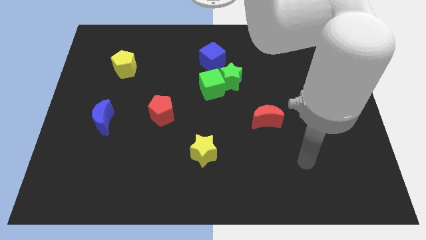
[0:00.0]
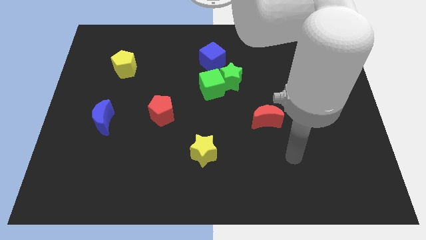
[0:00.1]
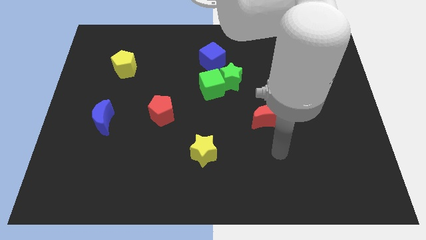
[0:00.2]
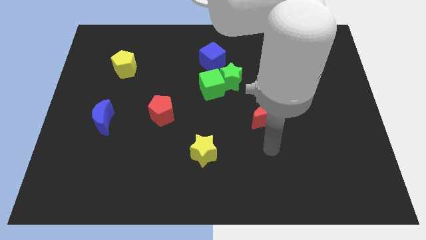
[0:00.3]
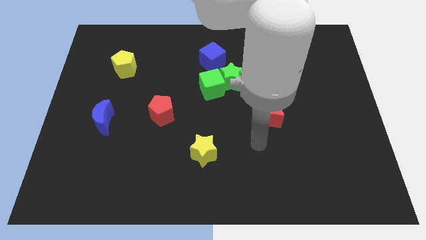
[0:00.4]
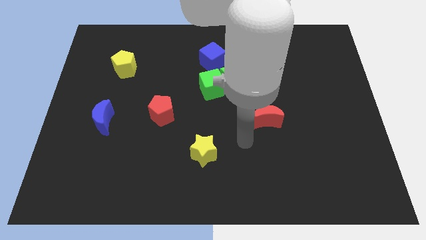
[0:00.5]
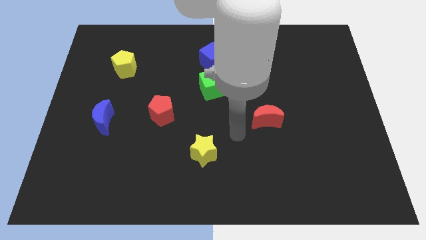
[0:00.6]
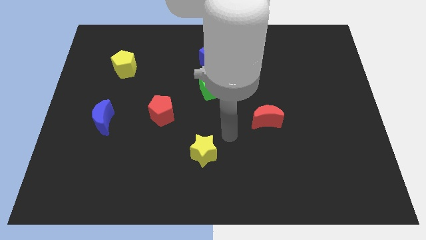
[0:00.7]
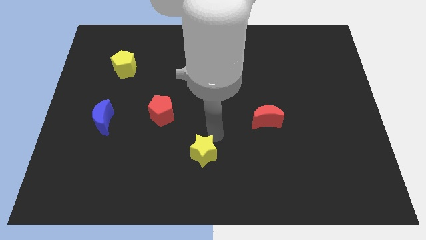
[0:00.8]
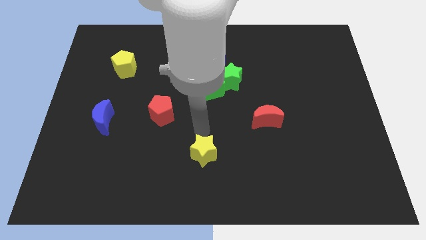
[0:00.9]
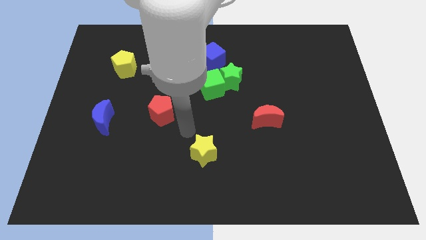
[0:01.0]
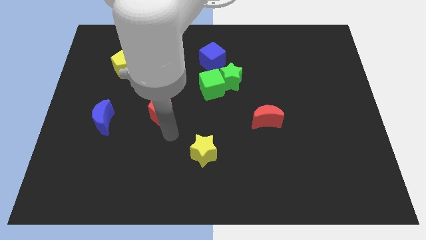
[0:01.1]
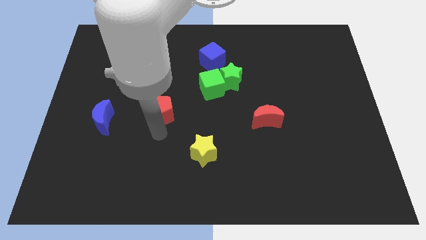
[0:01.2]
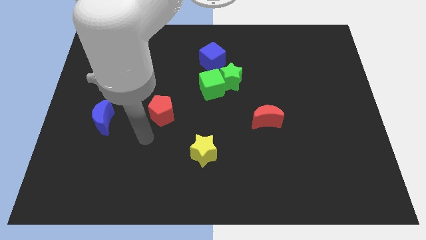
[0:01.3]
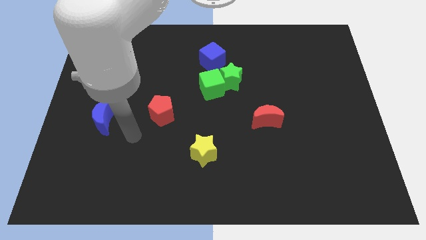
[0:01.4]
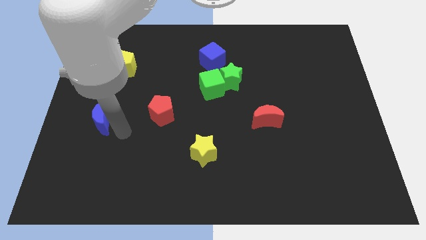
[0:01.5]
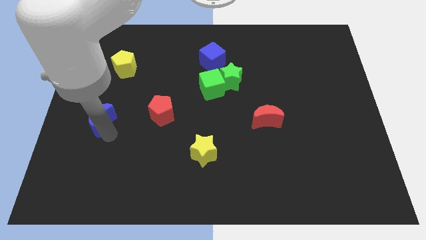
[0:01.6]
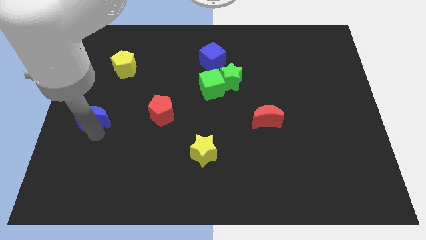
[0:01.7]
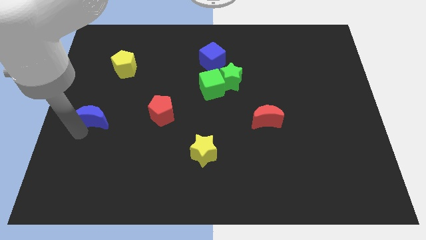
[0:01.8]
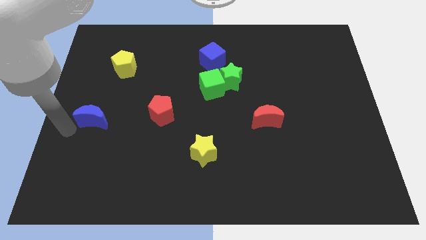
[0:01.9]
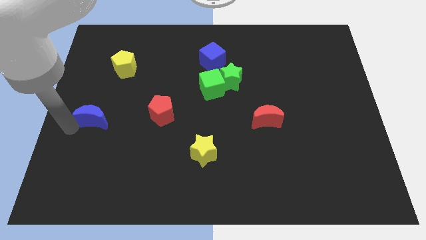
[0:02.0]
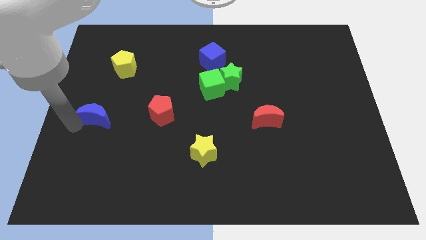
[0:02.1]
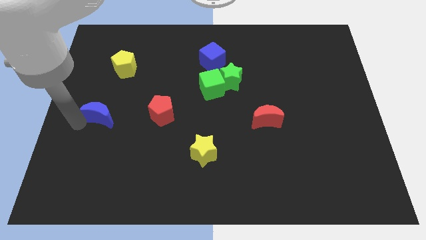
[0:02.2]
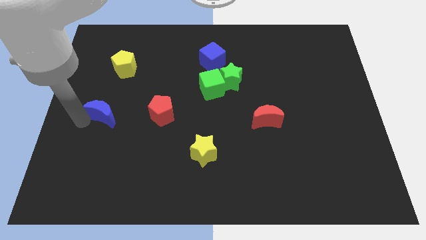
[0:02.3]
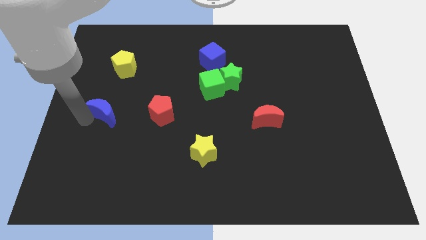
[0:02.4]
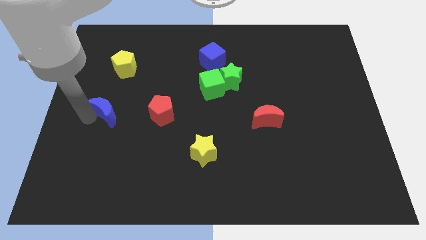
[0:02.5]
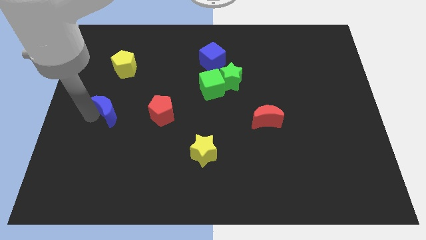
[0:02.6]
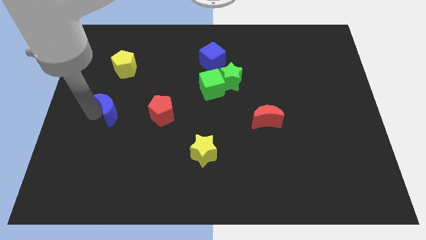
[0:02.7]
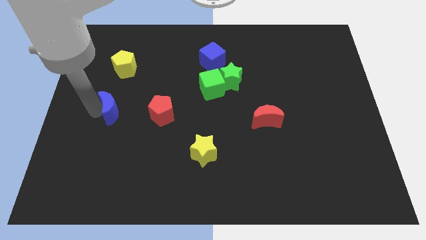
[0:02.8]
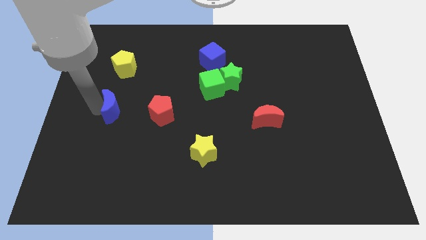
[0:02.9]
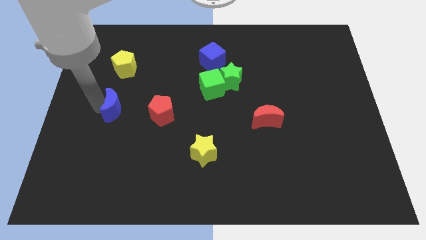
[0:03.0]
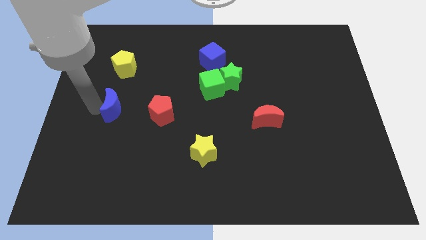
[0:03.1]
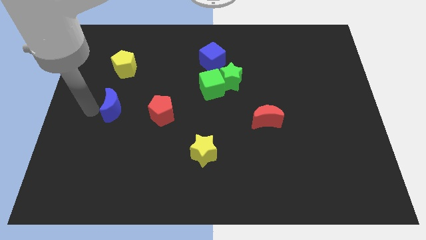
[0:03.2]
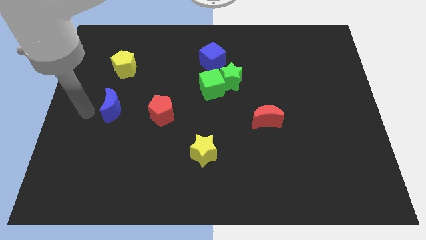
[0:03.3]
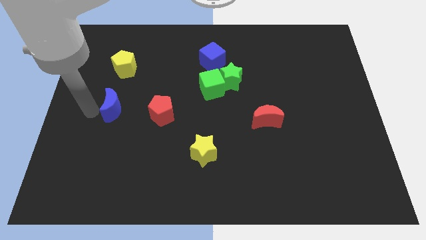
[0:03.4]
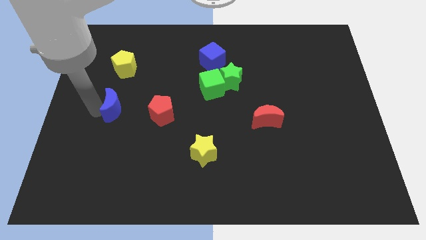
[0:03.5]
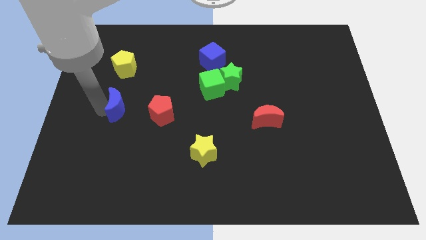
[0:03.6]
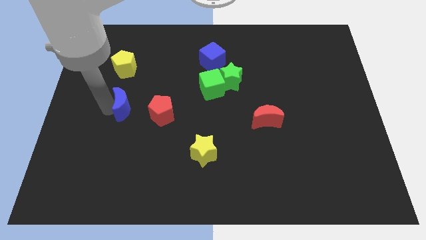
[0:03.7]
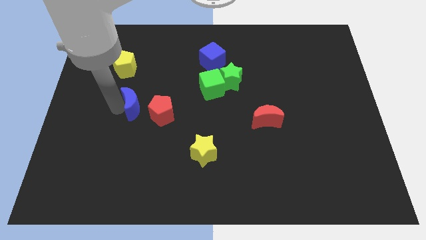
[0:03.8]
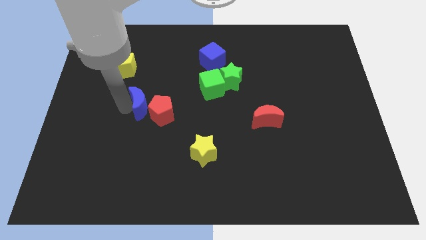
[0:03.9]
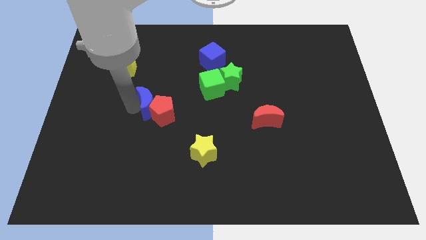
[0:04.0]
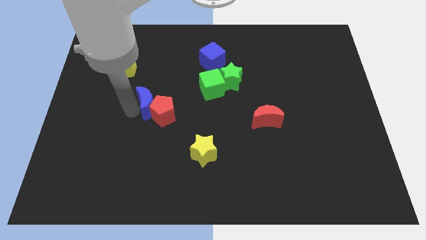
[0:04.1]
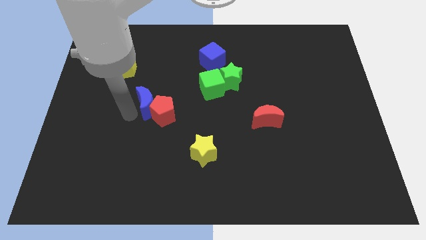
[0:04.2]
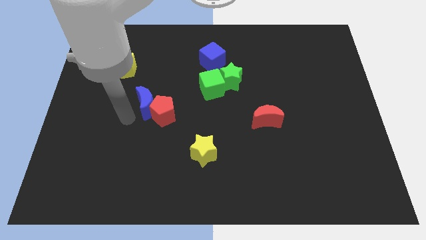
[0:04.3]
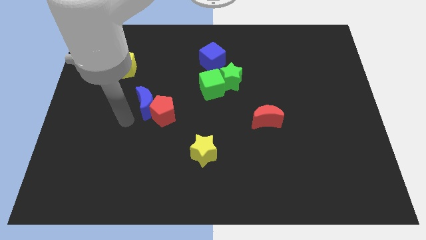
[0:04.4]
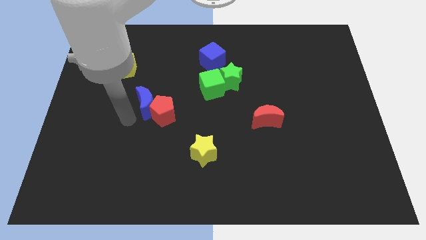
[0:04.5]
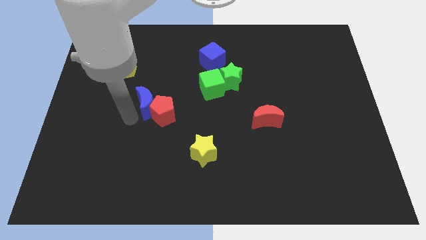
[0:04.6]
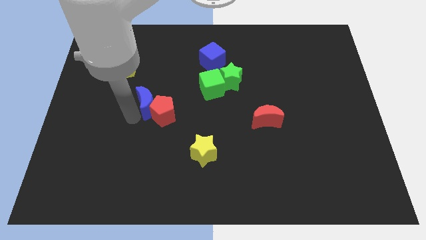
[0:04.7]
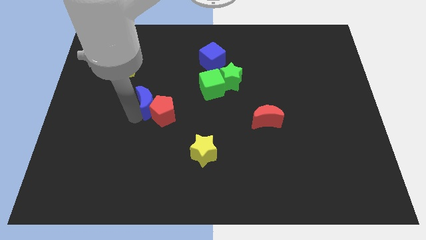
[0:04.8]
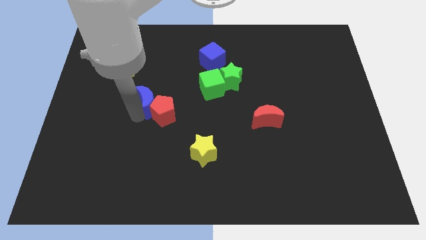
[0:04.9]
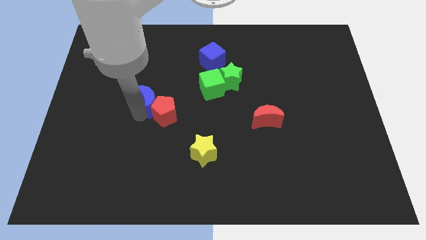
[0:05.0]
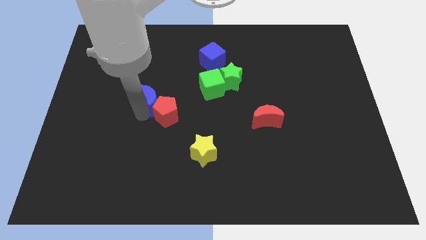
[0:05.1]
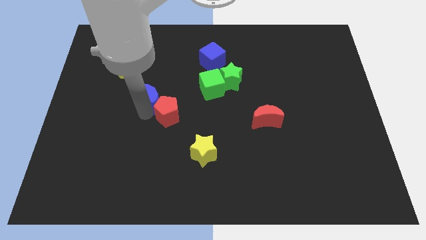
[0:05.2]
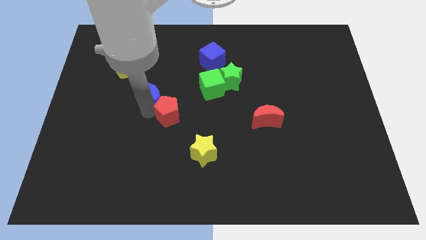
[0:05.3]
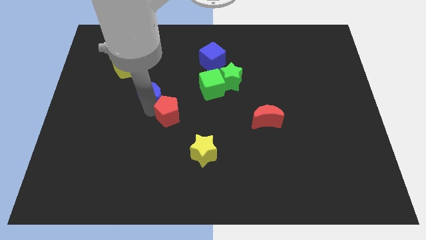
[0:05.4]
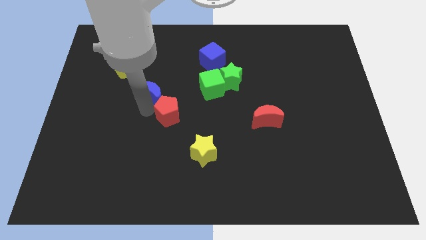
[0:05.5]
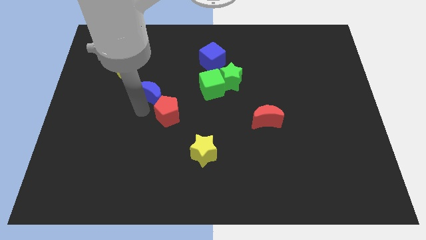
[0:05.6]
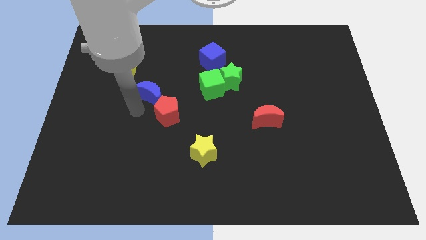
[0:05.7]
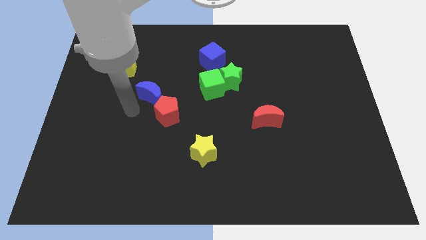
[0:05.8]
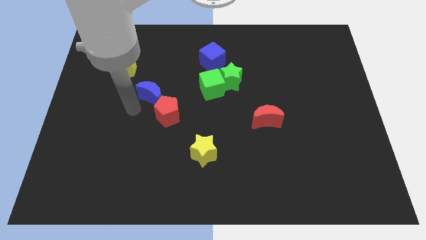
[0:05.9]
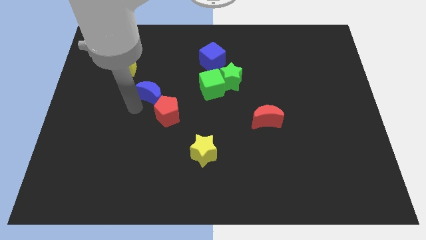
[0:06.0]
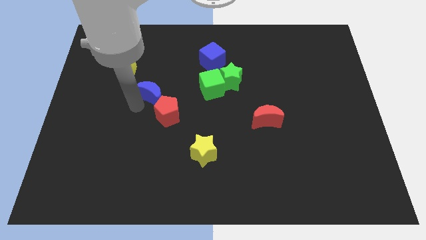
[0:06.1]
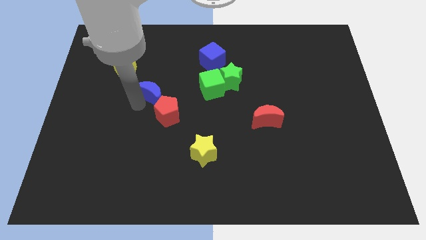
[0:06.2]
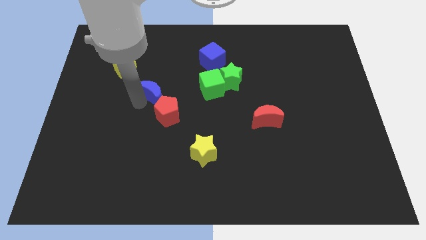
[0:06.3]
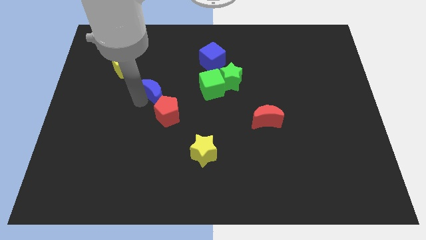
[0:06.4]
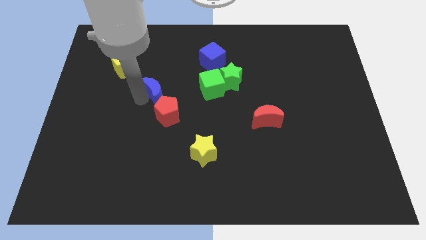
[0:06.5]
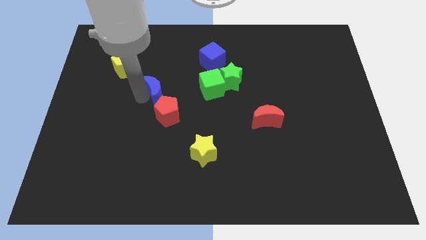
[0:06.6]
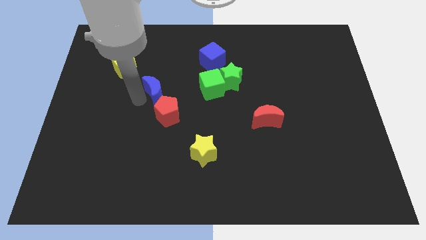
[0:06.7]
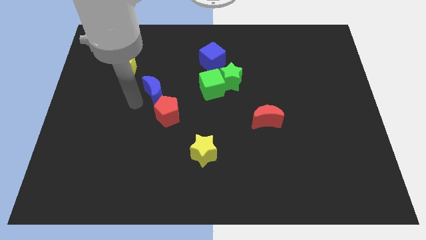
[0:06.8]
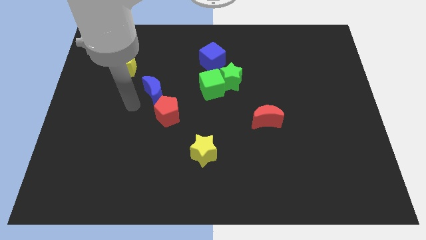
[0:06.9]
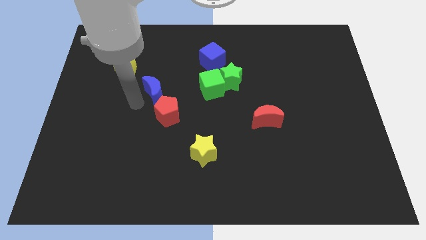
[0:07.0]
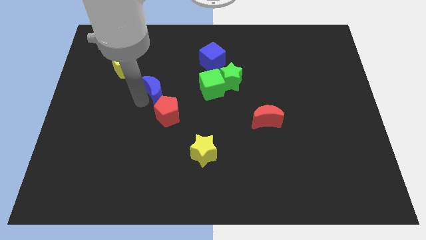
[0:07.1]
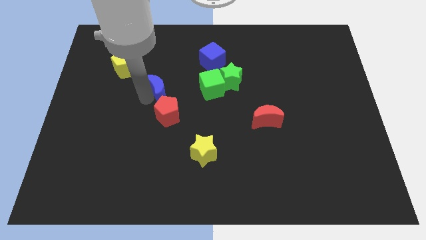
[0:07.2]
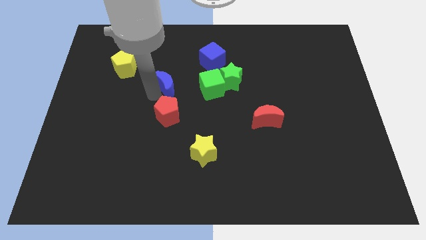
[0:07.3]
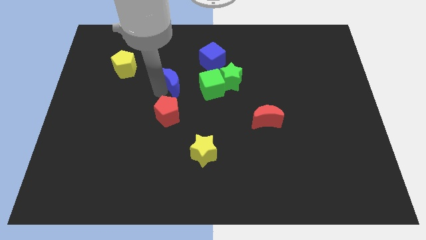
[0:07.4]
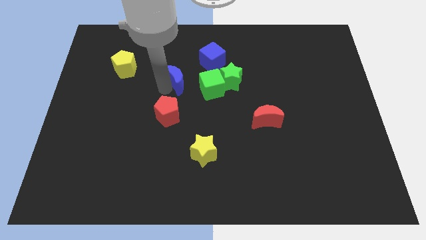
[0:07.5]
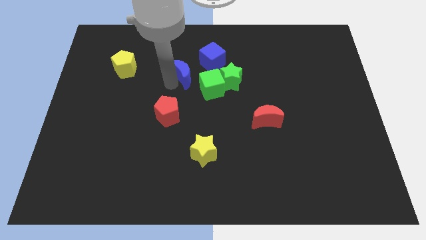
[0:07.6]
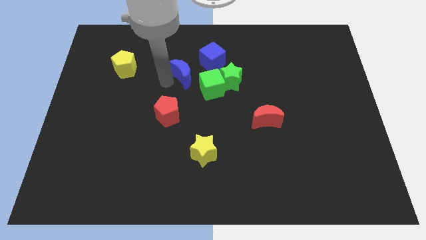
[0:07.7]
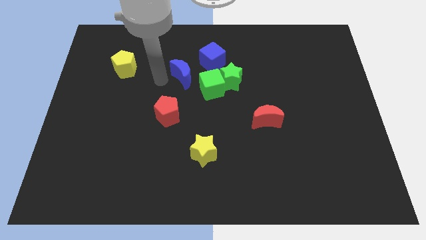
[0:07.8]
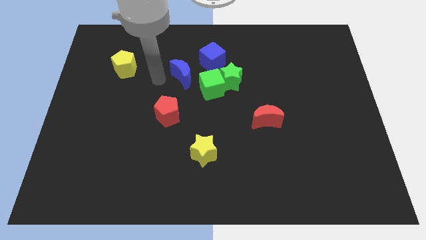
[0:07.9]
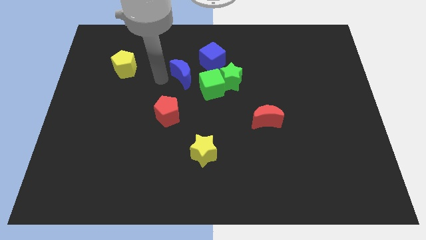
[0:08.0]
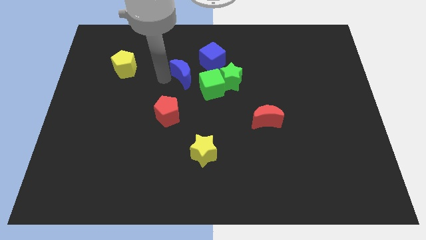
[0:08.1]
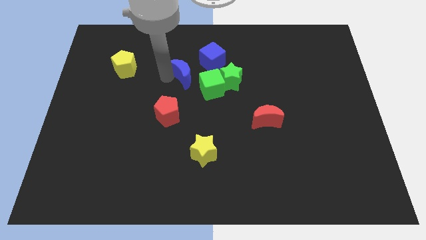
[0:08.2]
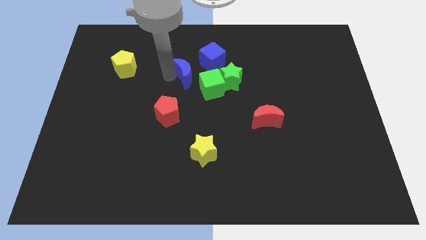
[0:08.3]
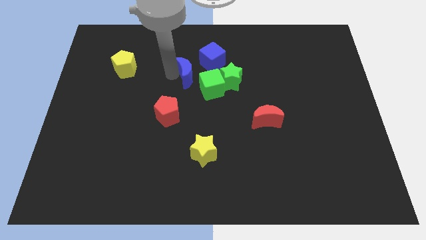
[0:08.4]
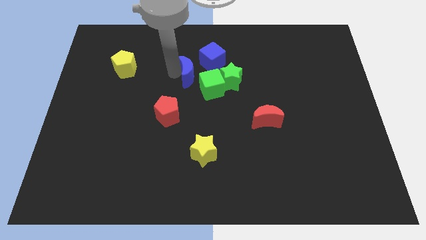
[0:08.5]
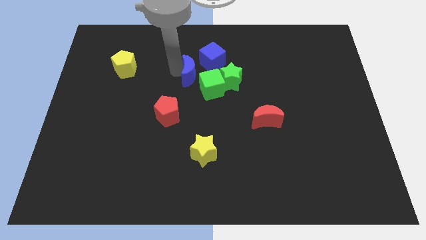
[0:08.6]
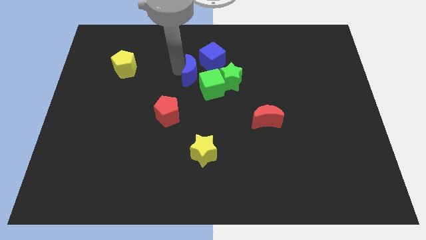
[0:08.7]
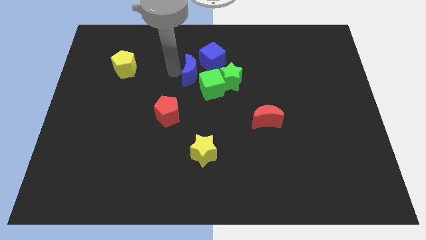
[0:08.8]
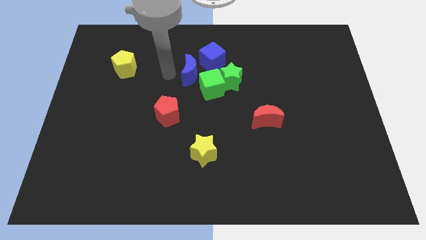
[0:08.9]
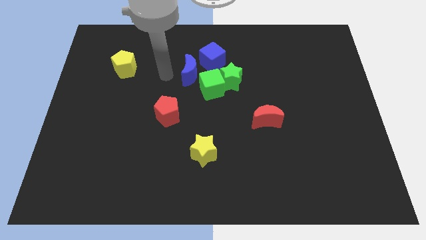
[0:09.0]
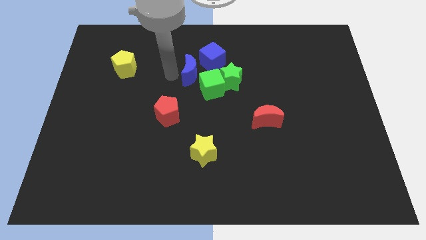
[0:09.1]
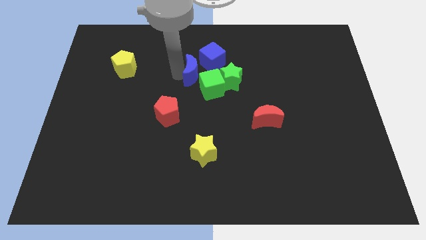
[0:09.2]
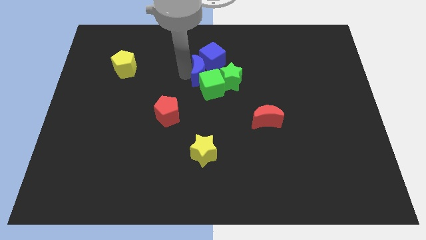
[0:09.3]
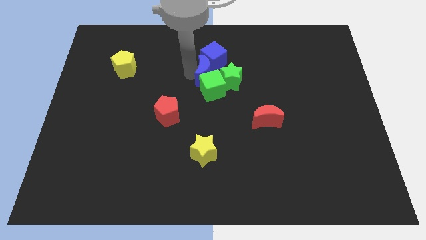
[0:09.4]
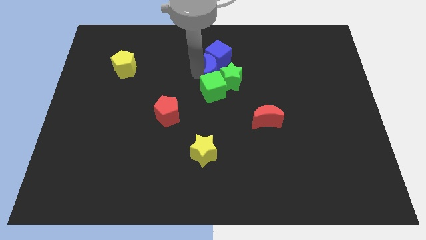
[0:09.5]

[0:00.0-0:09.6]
slide the blue moon towards the green star
